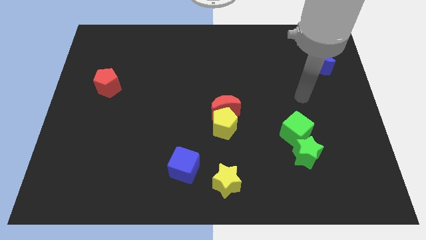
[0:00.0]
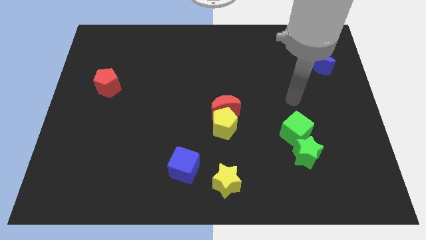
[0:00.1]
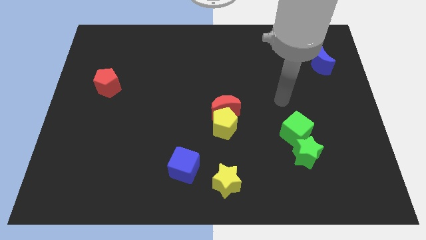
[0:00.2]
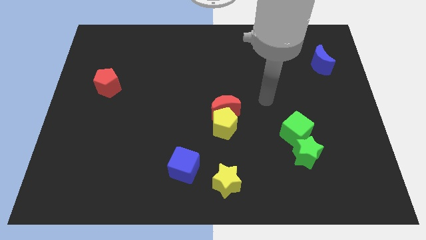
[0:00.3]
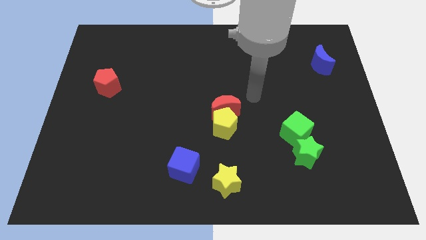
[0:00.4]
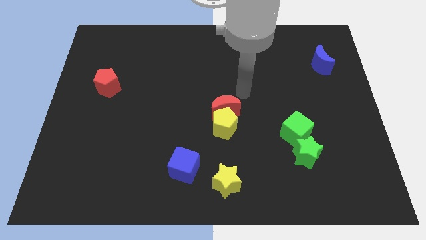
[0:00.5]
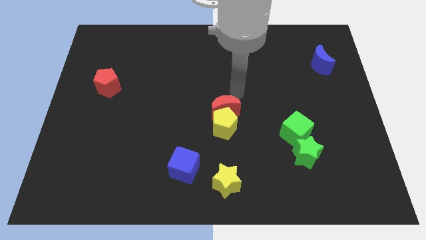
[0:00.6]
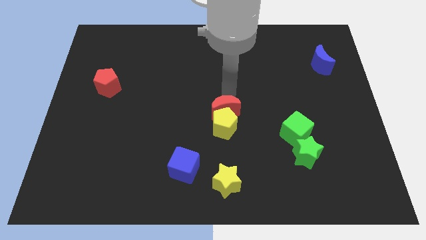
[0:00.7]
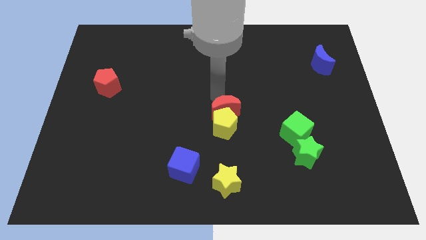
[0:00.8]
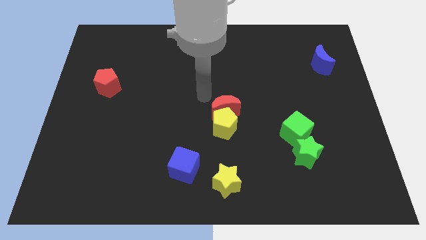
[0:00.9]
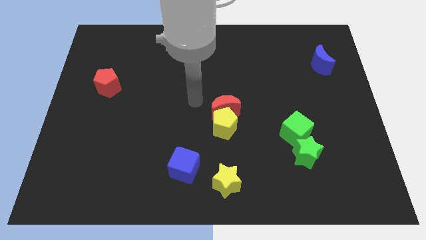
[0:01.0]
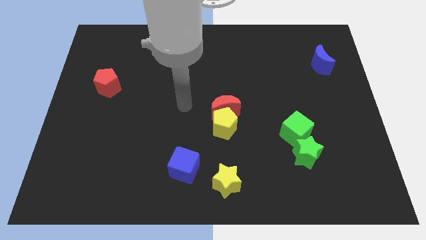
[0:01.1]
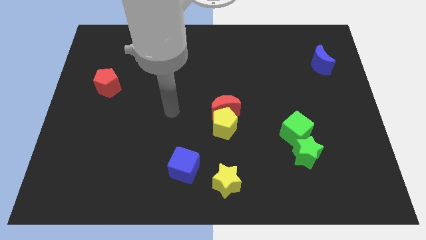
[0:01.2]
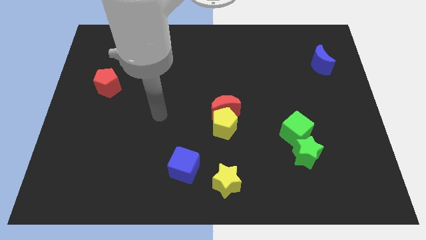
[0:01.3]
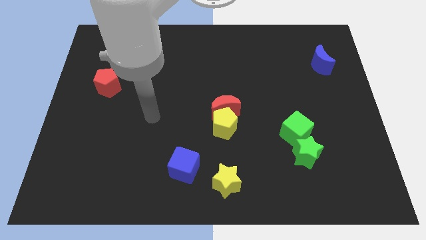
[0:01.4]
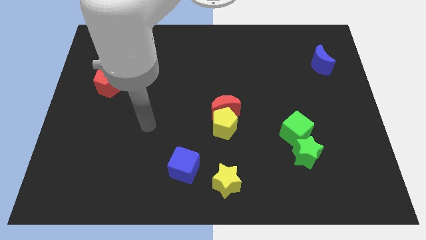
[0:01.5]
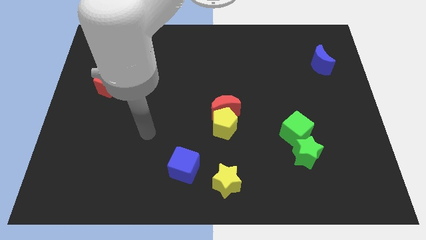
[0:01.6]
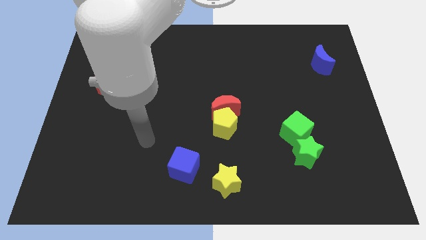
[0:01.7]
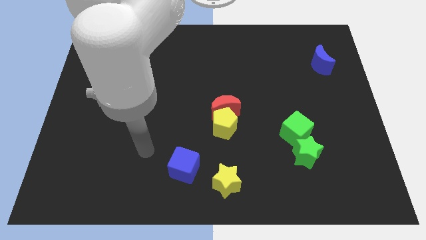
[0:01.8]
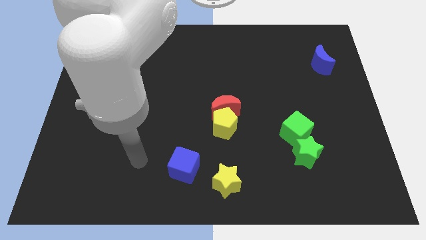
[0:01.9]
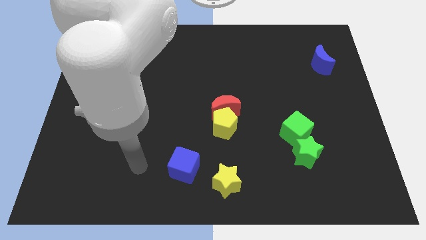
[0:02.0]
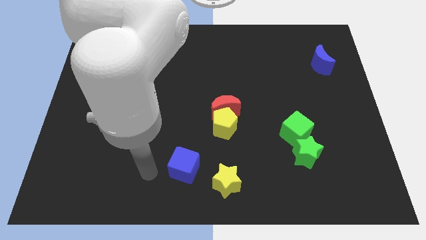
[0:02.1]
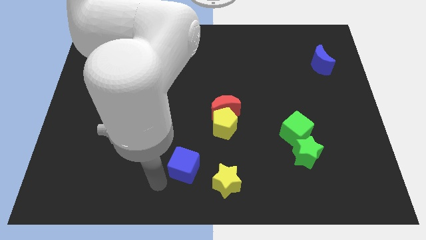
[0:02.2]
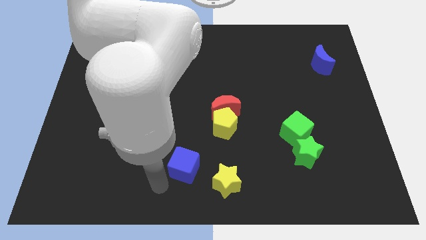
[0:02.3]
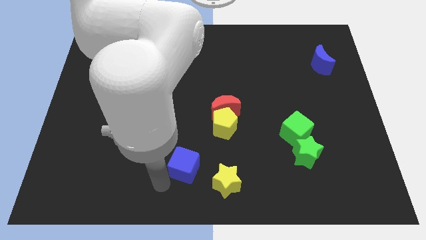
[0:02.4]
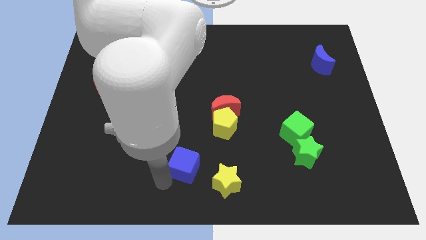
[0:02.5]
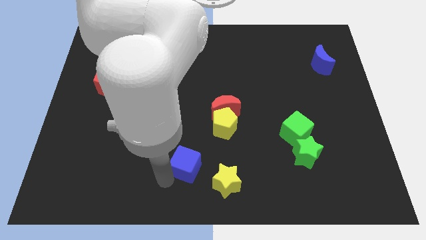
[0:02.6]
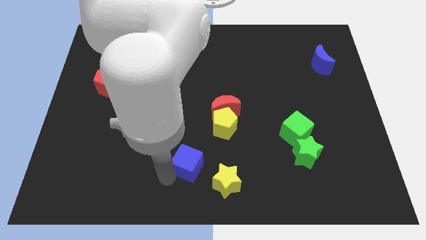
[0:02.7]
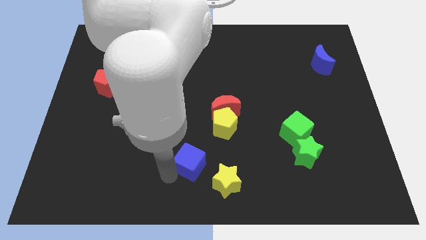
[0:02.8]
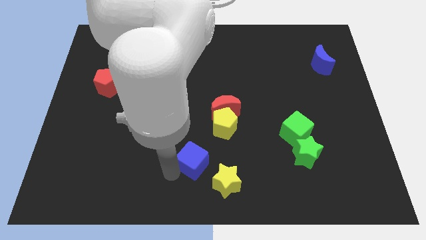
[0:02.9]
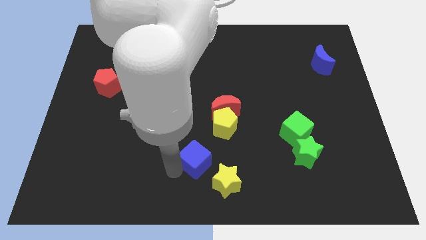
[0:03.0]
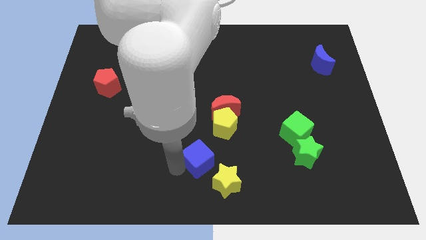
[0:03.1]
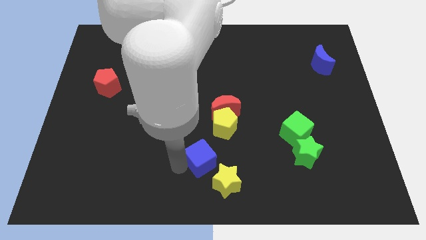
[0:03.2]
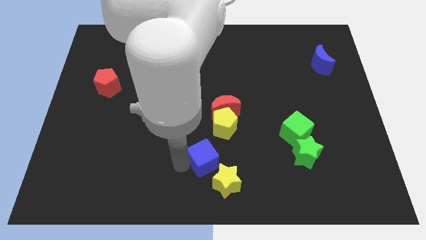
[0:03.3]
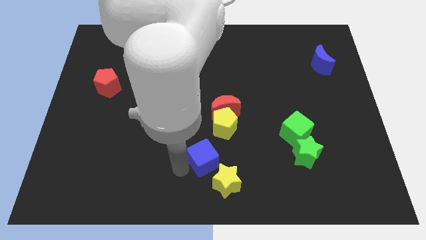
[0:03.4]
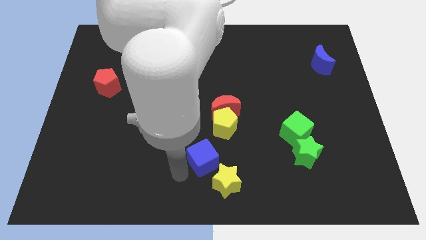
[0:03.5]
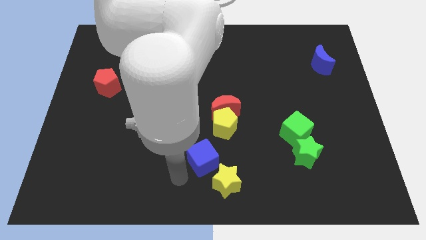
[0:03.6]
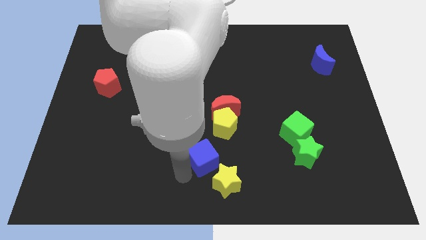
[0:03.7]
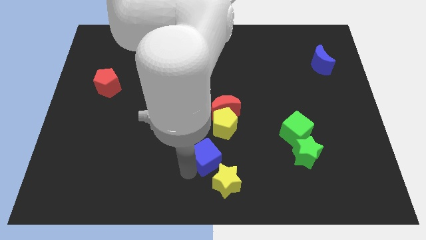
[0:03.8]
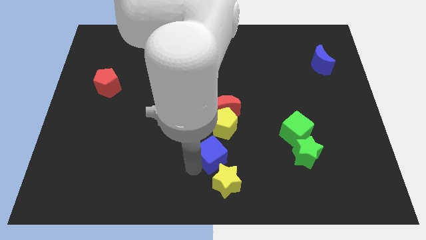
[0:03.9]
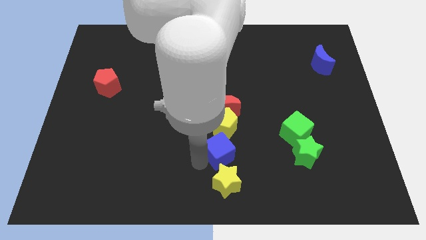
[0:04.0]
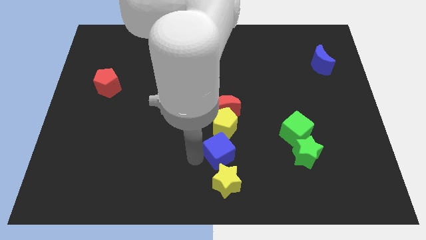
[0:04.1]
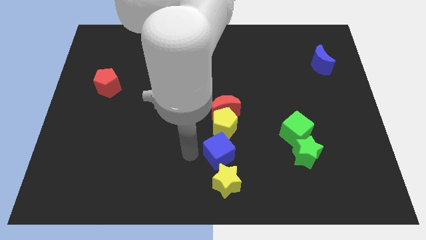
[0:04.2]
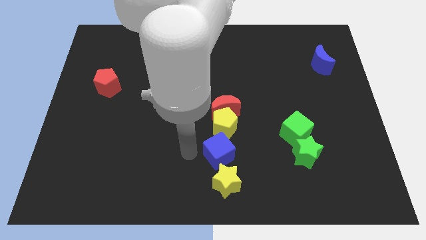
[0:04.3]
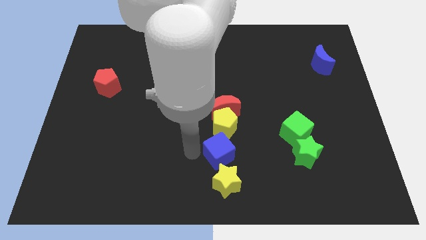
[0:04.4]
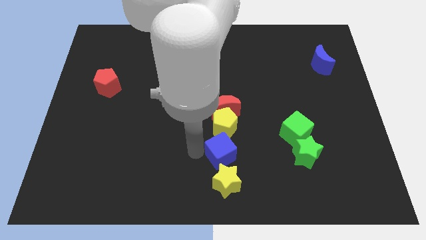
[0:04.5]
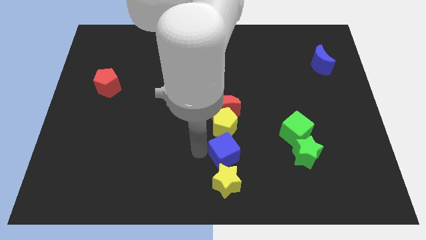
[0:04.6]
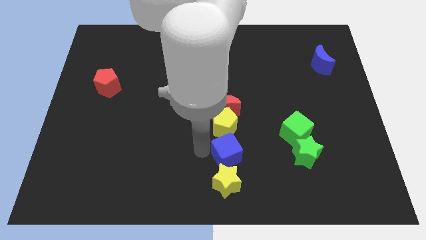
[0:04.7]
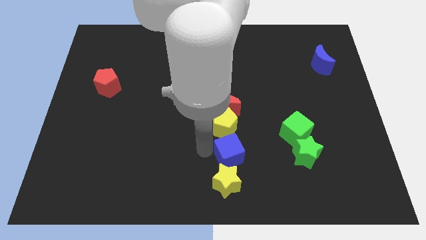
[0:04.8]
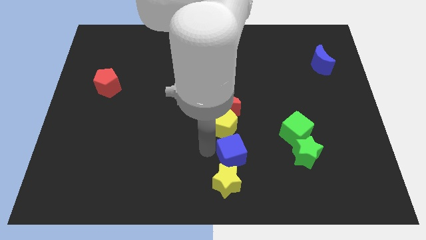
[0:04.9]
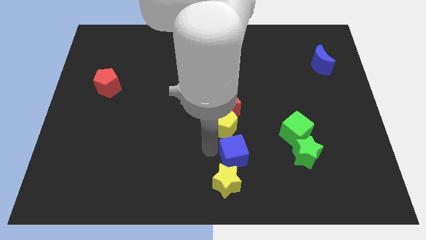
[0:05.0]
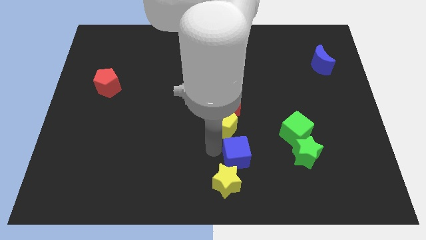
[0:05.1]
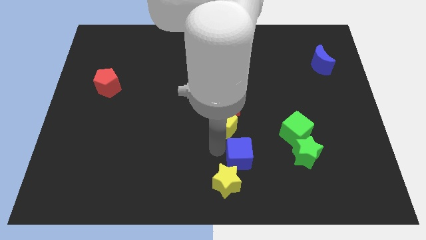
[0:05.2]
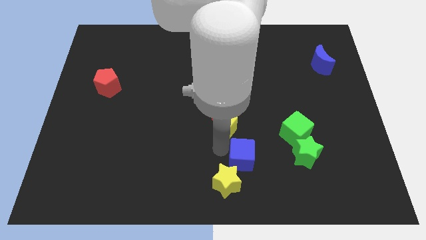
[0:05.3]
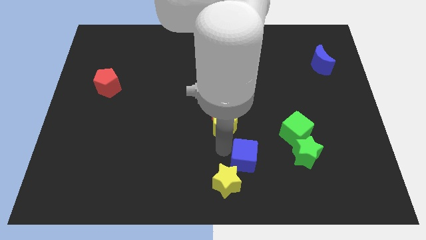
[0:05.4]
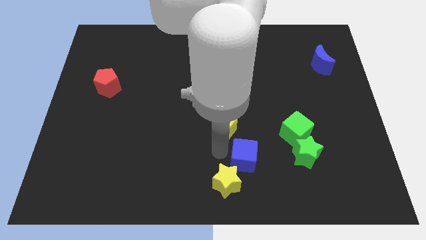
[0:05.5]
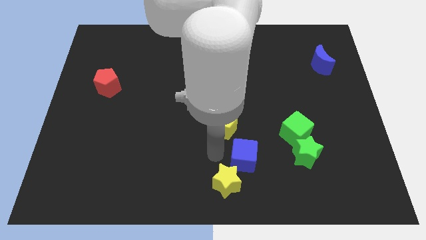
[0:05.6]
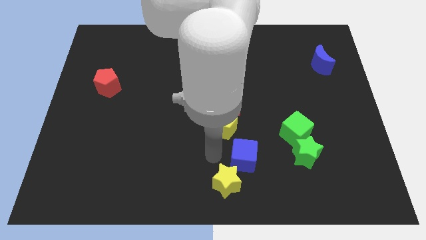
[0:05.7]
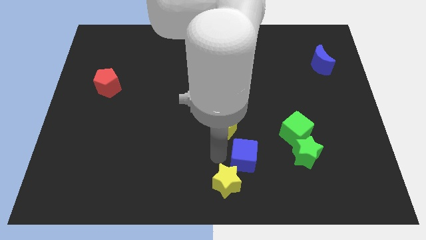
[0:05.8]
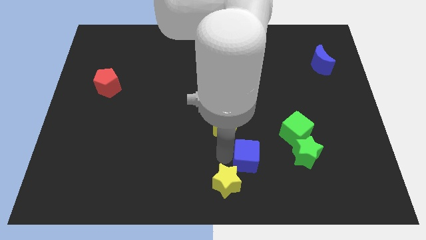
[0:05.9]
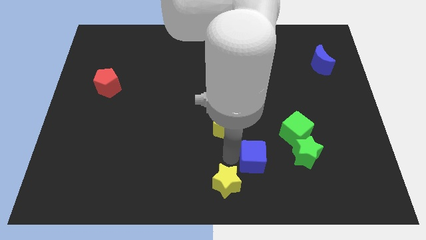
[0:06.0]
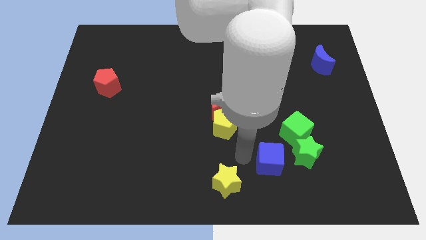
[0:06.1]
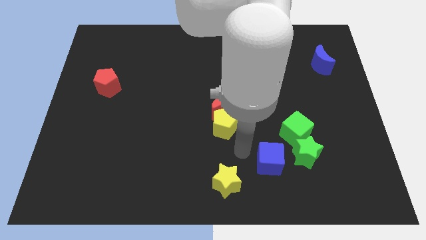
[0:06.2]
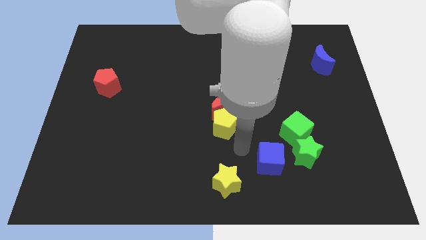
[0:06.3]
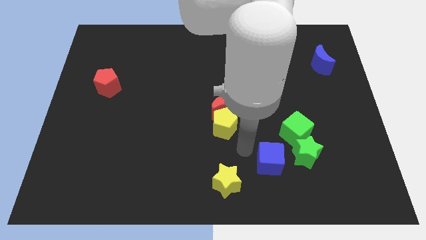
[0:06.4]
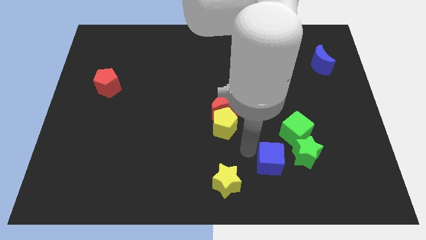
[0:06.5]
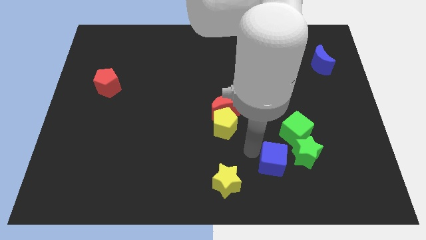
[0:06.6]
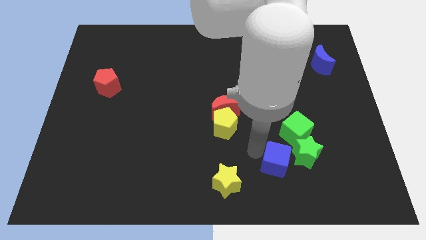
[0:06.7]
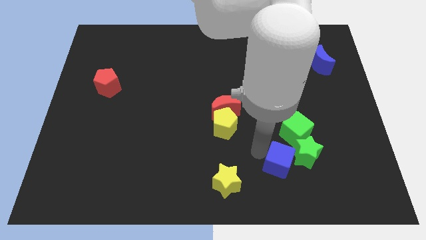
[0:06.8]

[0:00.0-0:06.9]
move the blue cube to the right

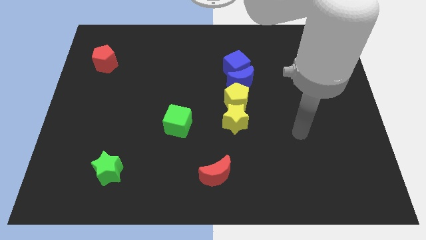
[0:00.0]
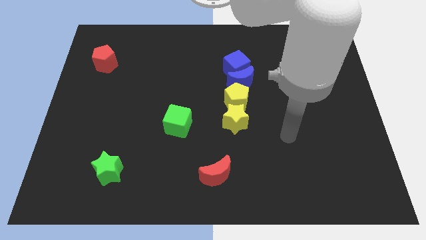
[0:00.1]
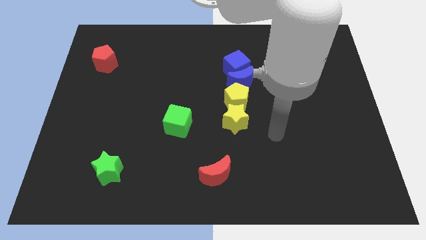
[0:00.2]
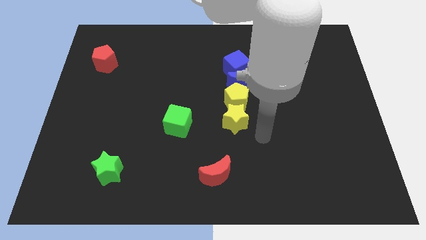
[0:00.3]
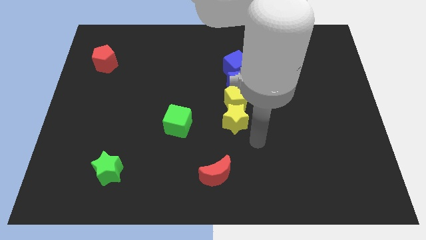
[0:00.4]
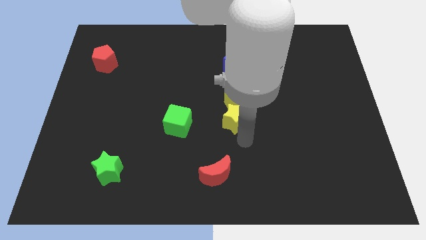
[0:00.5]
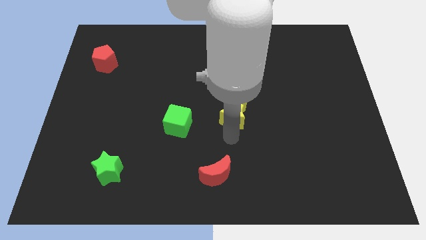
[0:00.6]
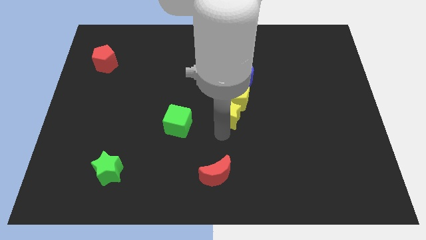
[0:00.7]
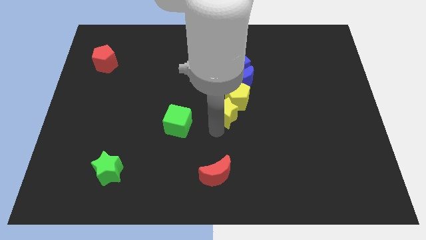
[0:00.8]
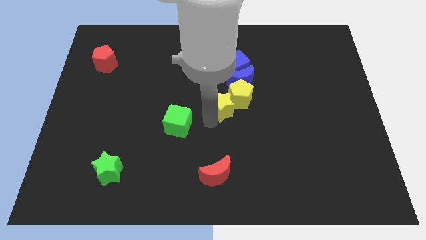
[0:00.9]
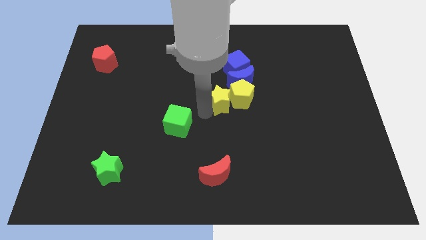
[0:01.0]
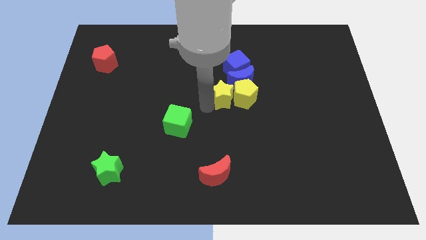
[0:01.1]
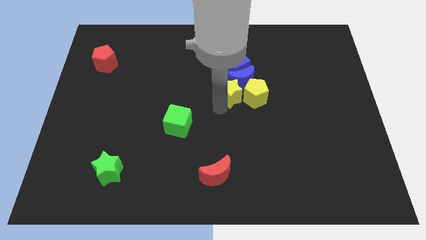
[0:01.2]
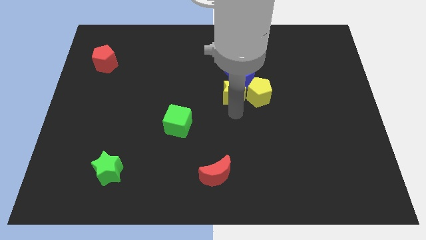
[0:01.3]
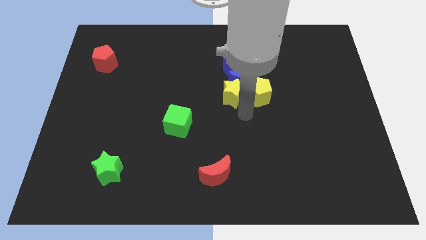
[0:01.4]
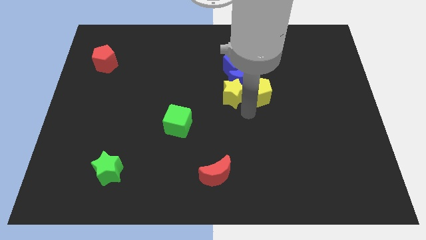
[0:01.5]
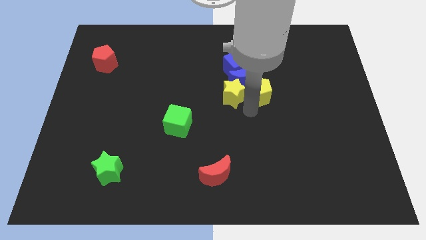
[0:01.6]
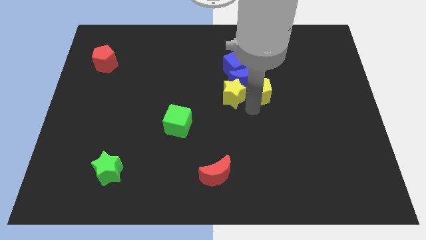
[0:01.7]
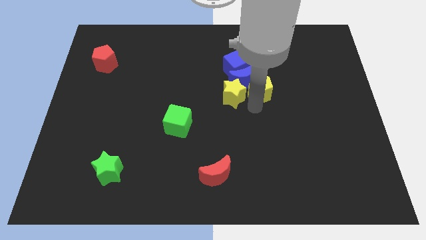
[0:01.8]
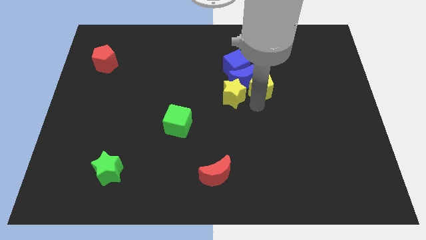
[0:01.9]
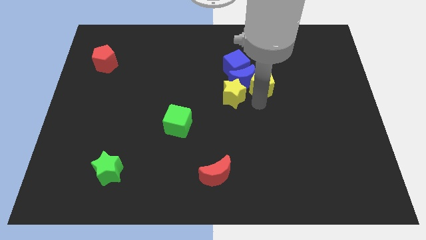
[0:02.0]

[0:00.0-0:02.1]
slide the yellow pentagon up and to the right diagonally a little bit
